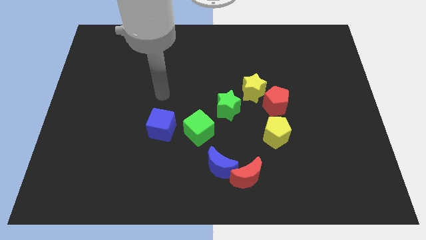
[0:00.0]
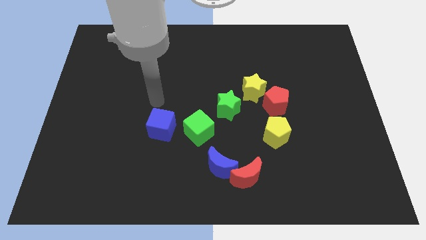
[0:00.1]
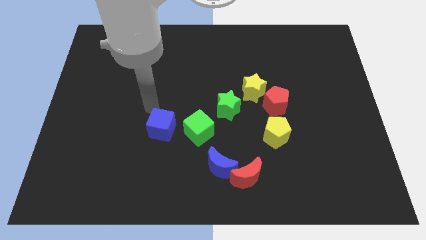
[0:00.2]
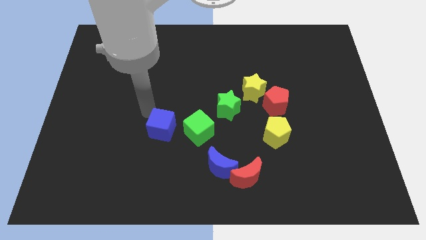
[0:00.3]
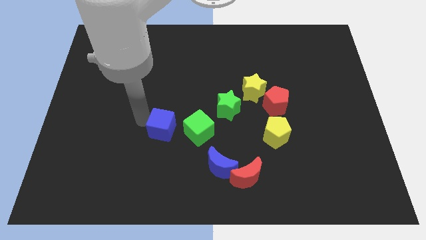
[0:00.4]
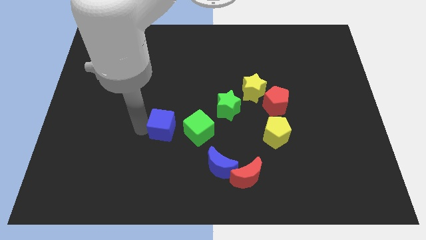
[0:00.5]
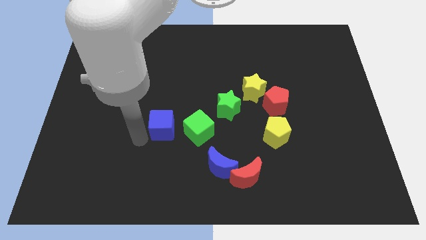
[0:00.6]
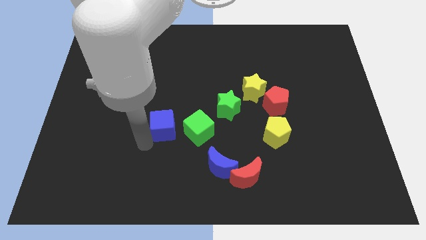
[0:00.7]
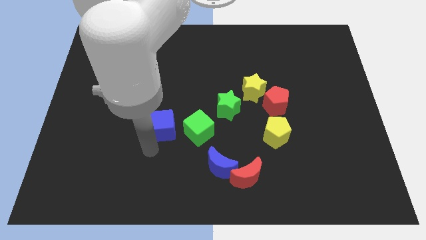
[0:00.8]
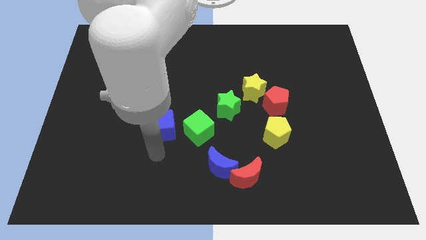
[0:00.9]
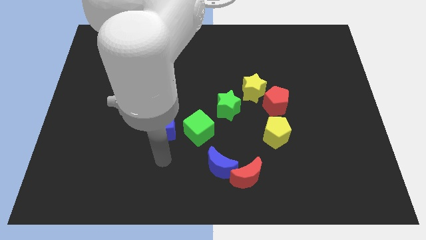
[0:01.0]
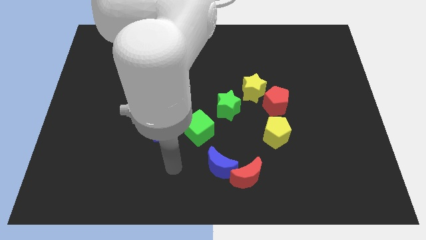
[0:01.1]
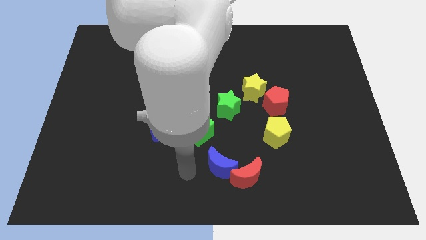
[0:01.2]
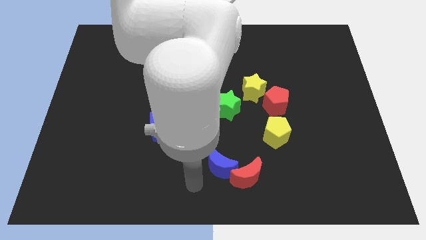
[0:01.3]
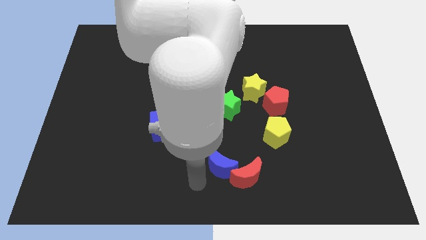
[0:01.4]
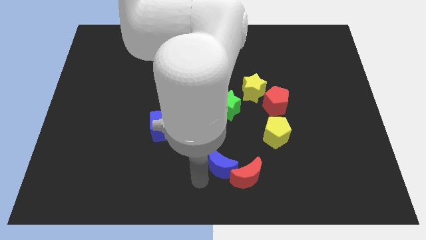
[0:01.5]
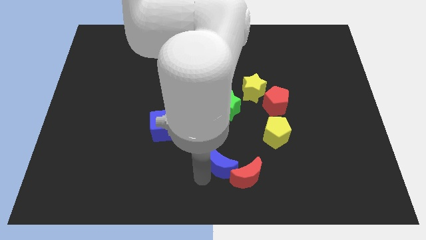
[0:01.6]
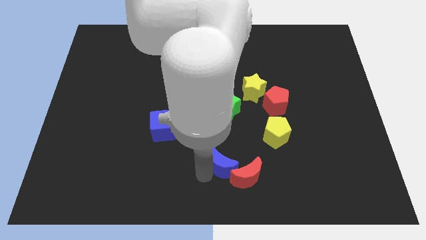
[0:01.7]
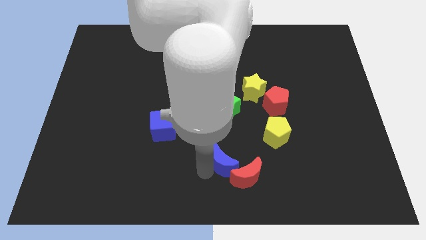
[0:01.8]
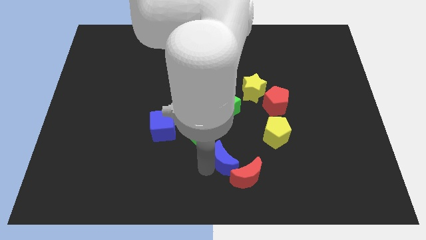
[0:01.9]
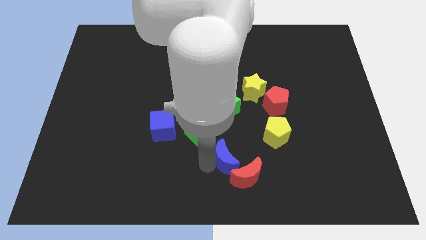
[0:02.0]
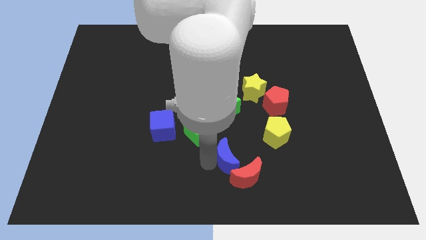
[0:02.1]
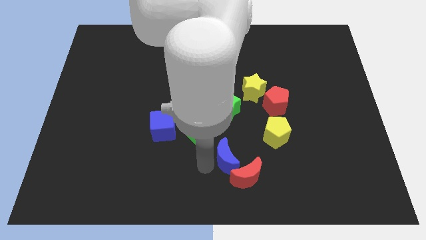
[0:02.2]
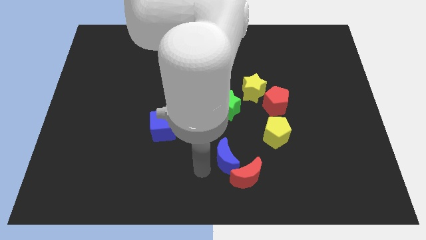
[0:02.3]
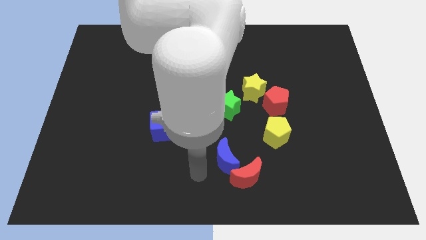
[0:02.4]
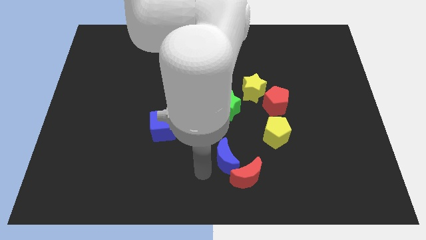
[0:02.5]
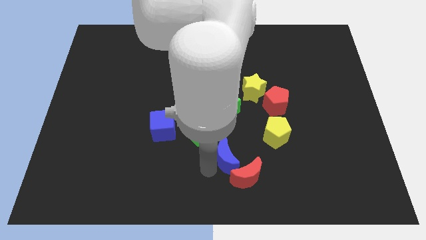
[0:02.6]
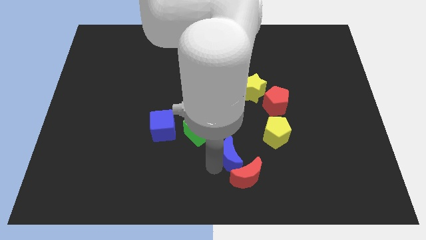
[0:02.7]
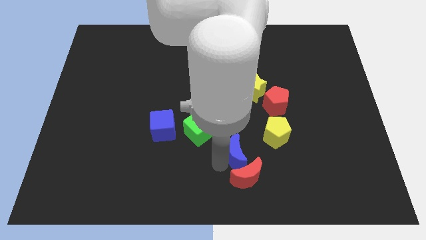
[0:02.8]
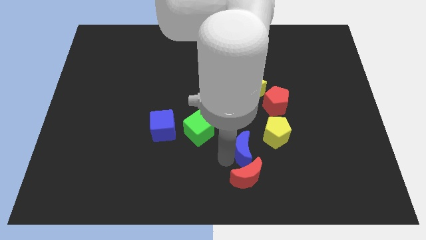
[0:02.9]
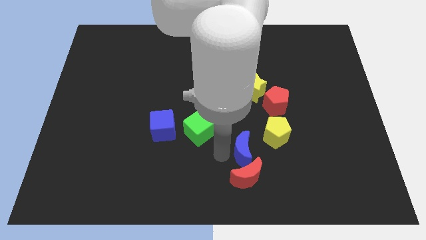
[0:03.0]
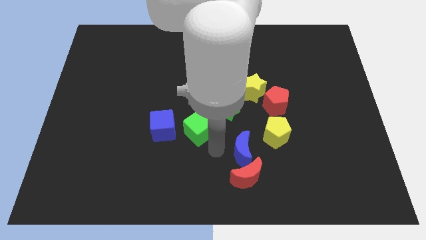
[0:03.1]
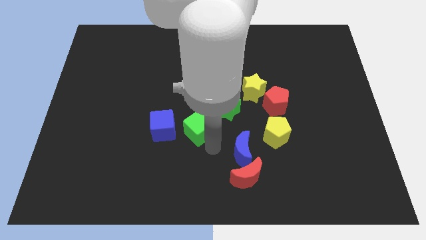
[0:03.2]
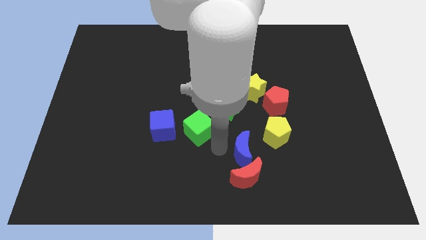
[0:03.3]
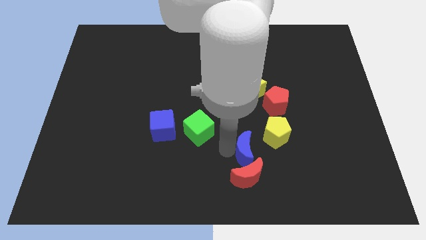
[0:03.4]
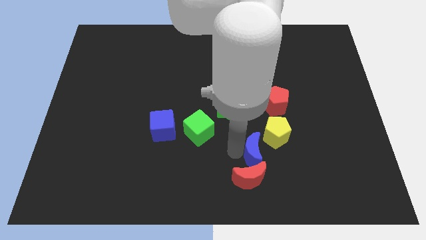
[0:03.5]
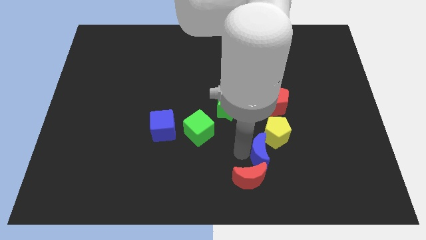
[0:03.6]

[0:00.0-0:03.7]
slide the blue moon somewhat right

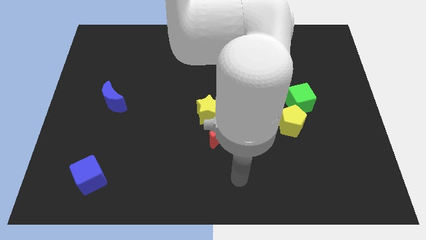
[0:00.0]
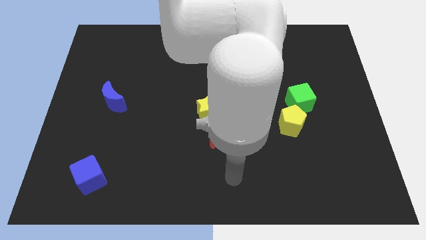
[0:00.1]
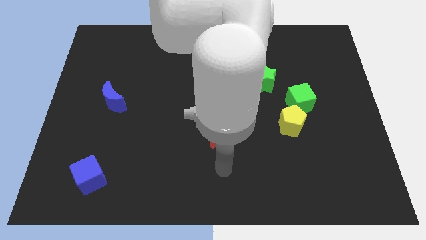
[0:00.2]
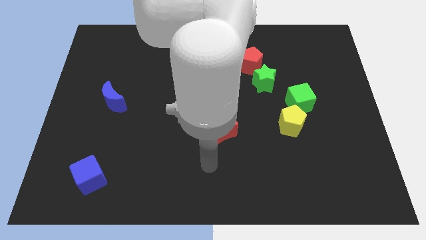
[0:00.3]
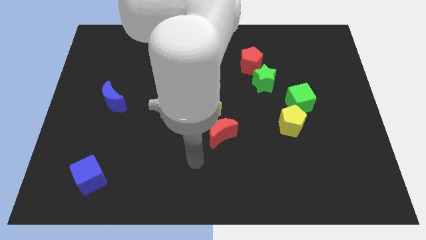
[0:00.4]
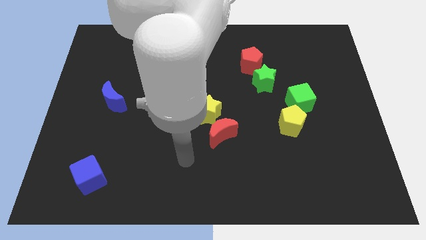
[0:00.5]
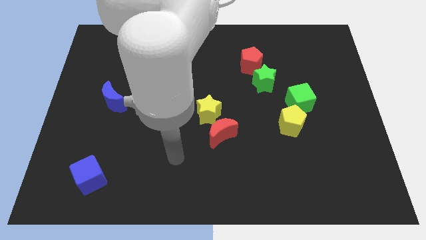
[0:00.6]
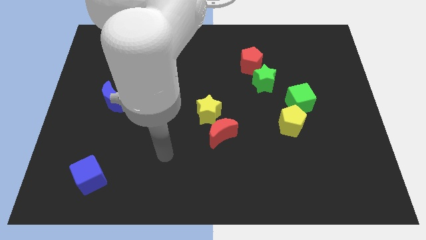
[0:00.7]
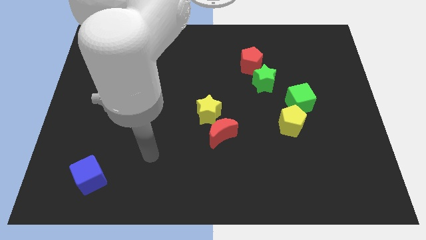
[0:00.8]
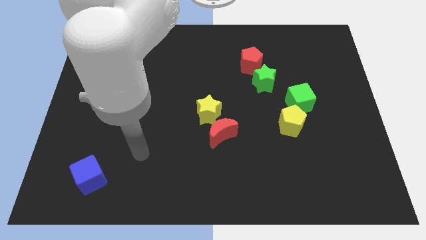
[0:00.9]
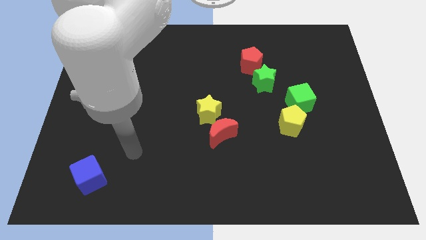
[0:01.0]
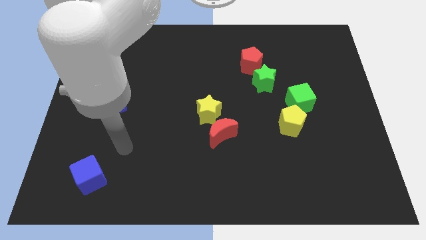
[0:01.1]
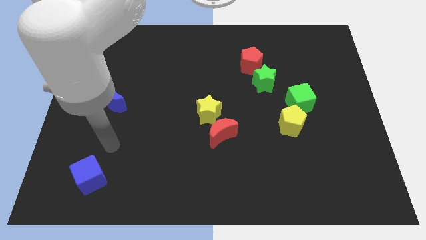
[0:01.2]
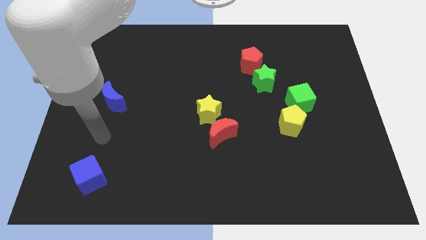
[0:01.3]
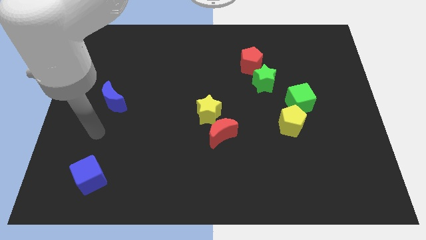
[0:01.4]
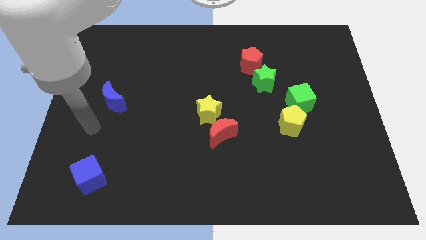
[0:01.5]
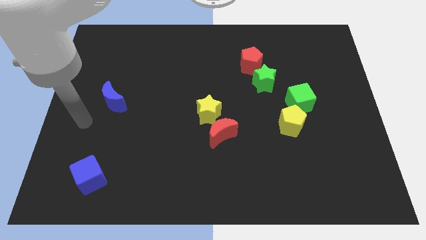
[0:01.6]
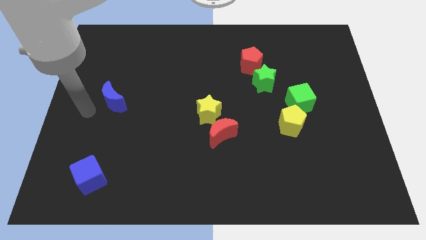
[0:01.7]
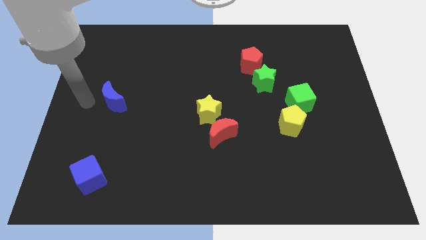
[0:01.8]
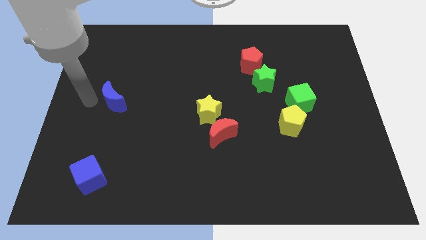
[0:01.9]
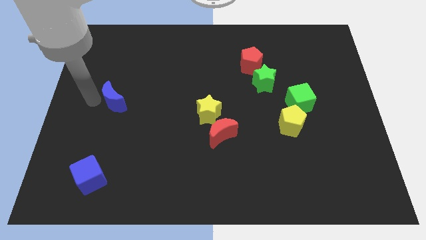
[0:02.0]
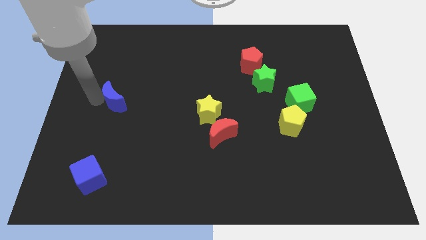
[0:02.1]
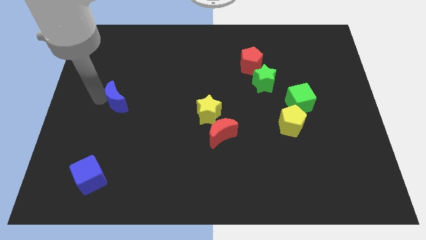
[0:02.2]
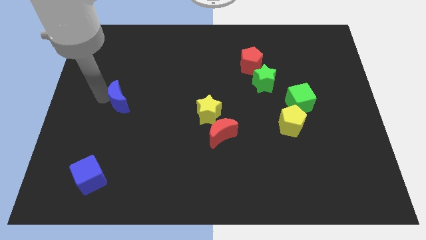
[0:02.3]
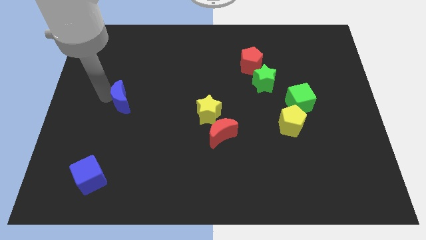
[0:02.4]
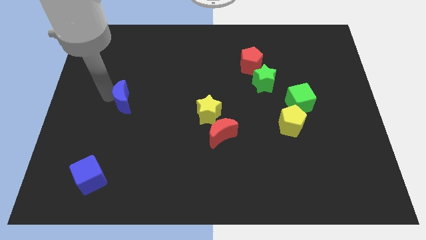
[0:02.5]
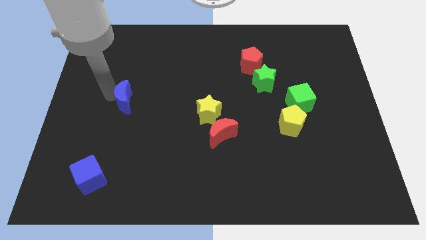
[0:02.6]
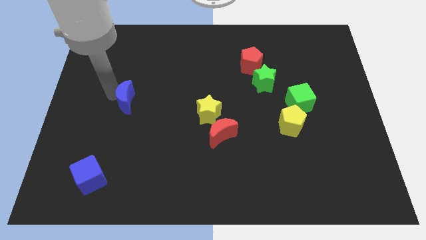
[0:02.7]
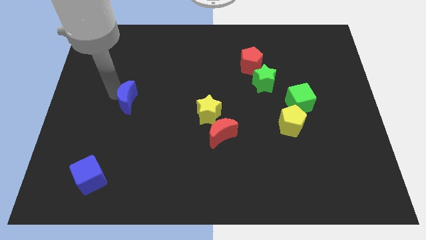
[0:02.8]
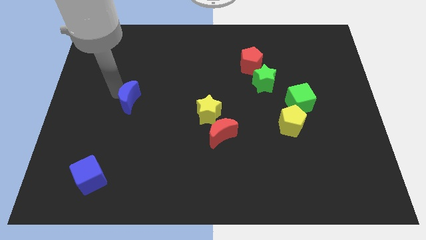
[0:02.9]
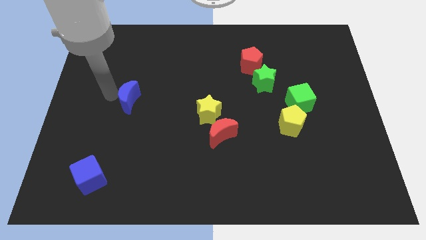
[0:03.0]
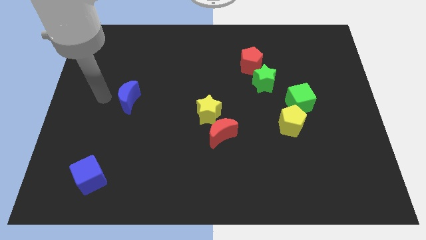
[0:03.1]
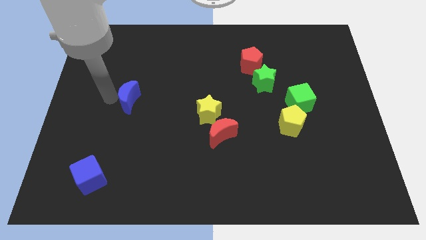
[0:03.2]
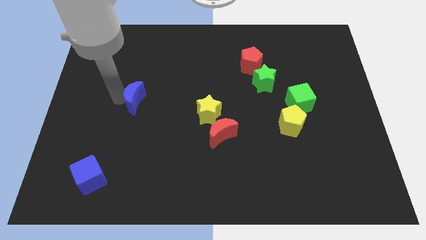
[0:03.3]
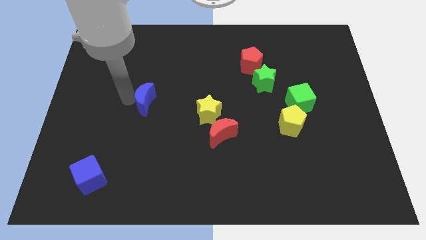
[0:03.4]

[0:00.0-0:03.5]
push the blue moon to the right slightly

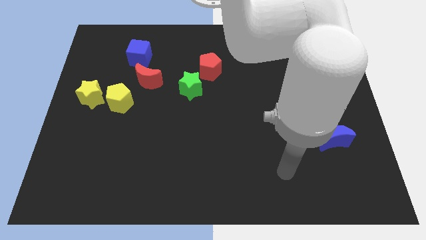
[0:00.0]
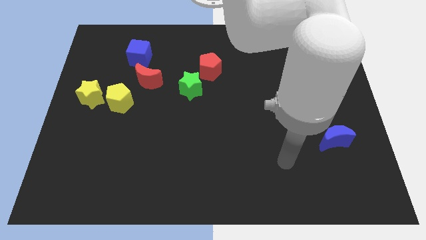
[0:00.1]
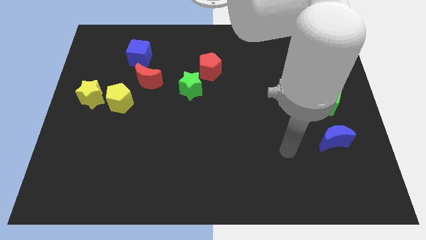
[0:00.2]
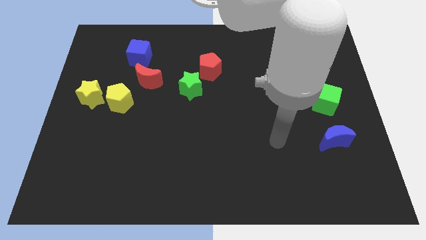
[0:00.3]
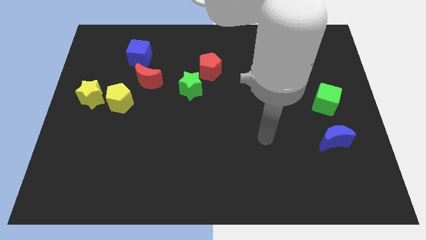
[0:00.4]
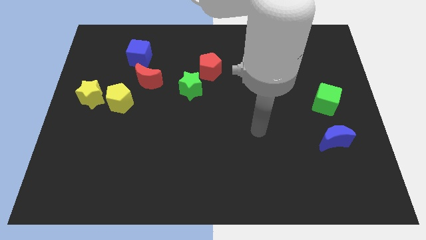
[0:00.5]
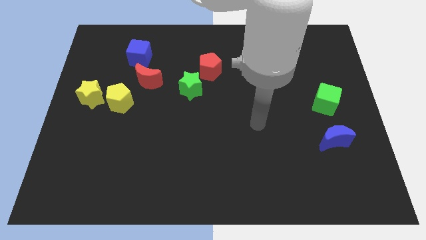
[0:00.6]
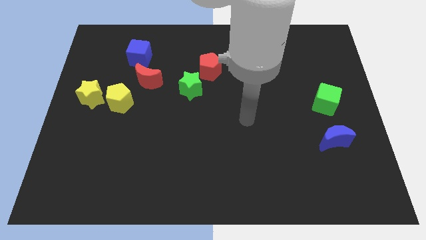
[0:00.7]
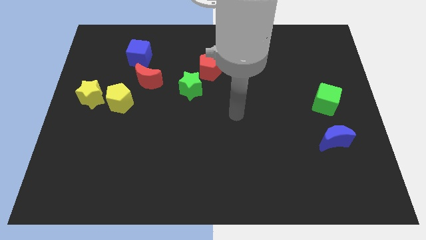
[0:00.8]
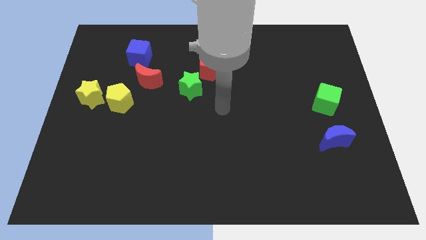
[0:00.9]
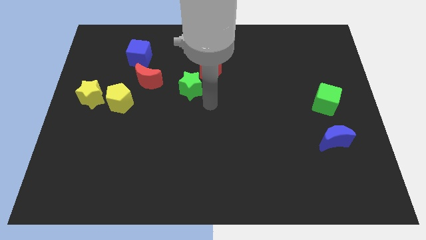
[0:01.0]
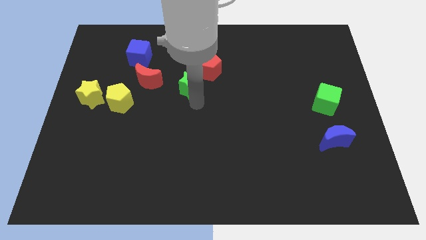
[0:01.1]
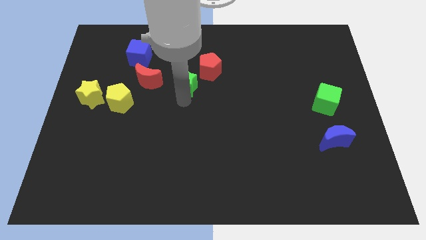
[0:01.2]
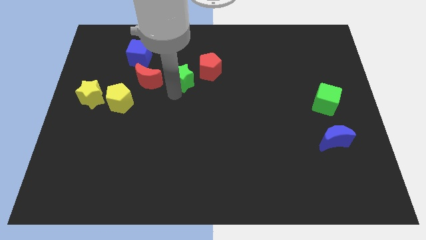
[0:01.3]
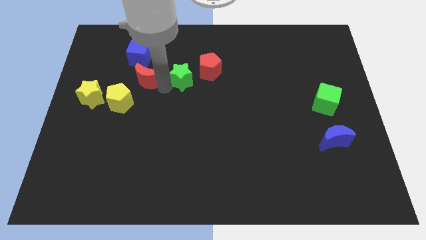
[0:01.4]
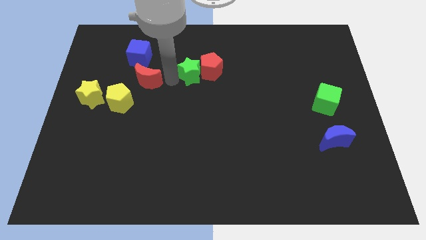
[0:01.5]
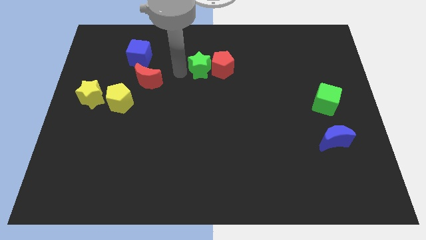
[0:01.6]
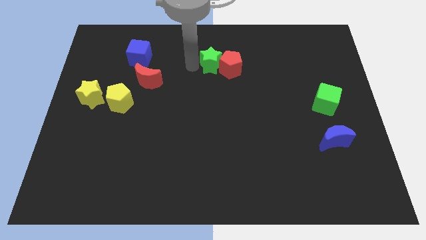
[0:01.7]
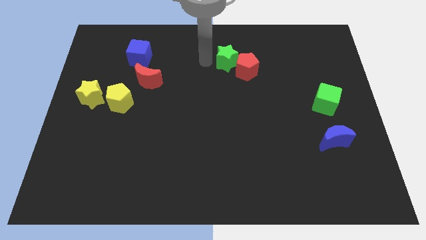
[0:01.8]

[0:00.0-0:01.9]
slide the red pentagon somewhat right
